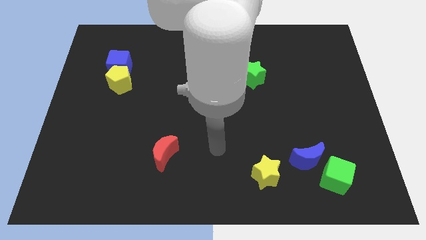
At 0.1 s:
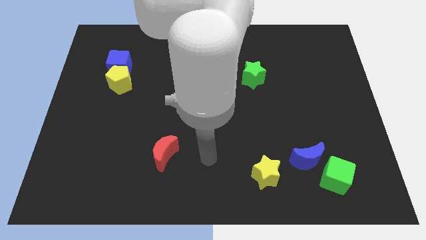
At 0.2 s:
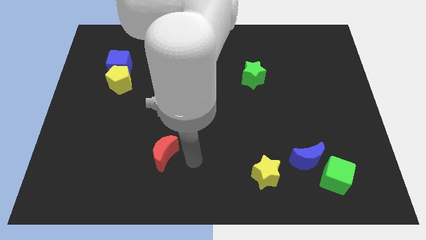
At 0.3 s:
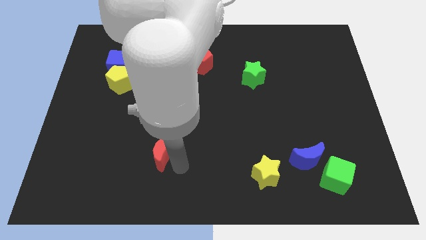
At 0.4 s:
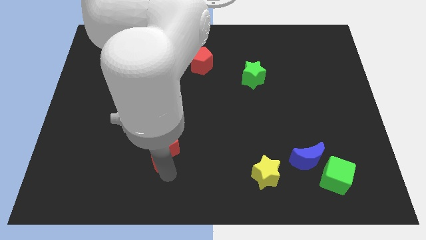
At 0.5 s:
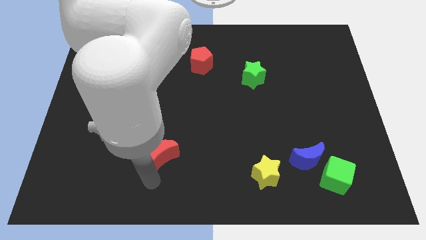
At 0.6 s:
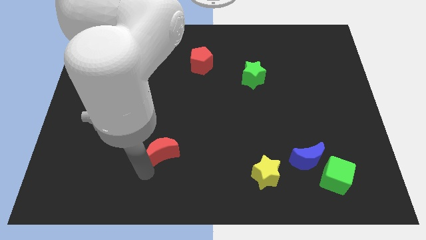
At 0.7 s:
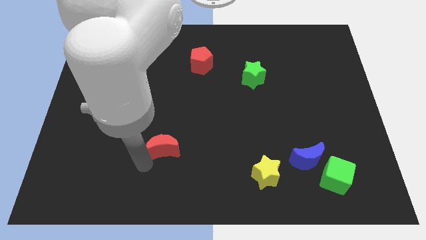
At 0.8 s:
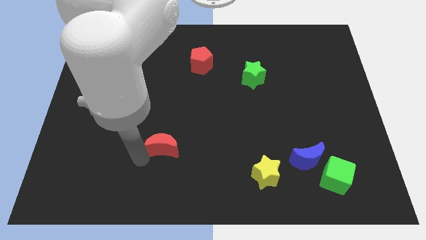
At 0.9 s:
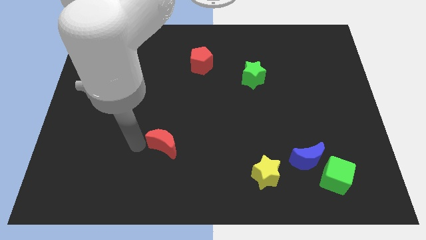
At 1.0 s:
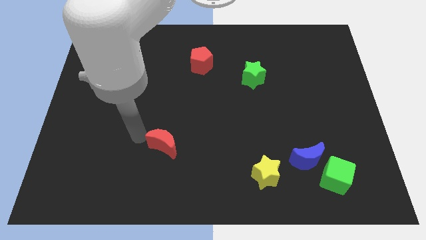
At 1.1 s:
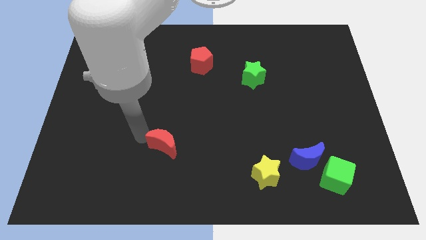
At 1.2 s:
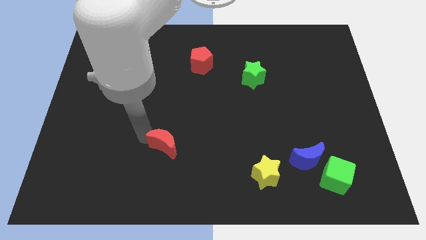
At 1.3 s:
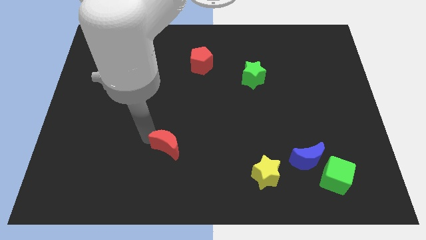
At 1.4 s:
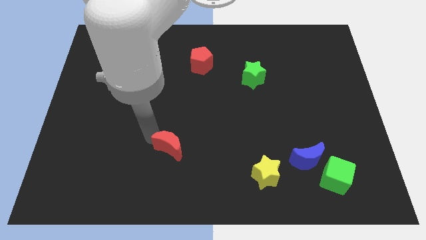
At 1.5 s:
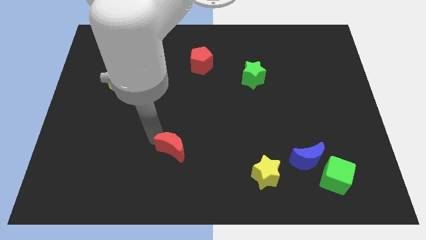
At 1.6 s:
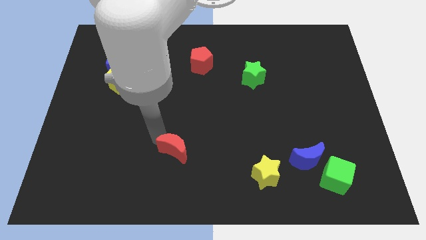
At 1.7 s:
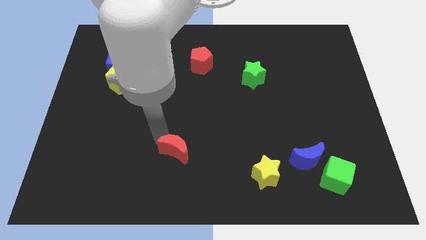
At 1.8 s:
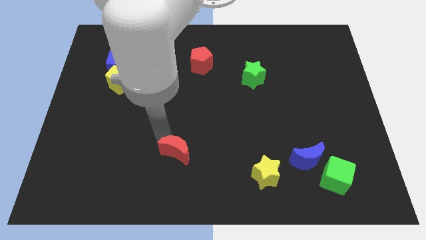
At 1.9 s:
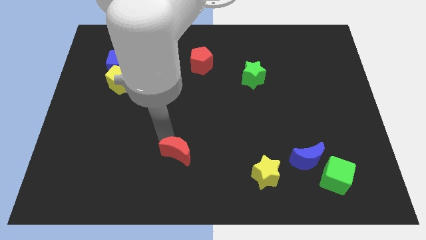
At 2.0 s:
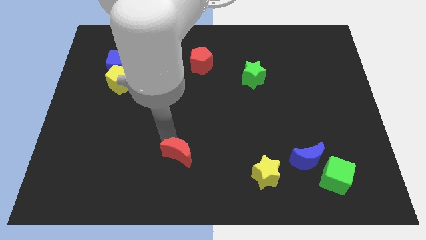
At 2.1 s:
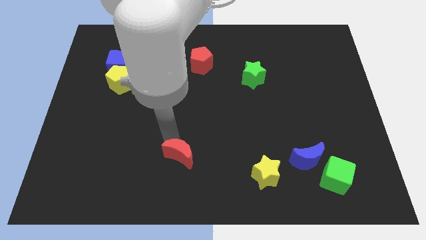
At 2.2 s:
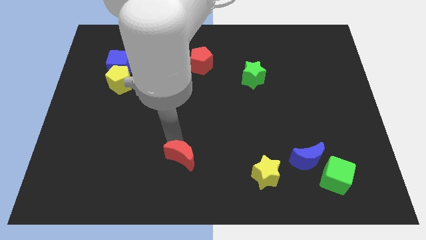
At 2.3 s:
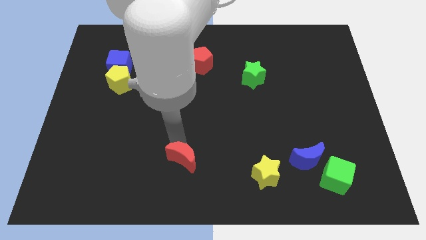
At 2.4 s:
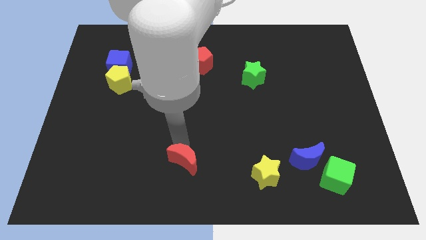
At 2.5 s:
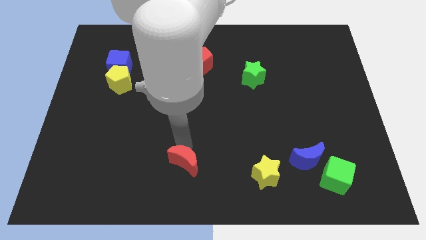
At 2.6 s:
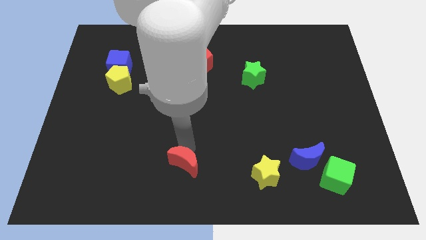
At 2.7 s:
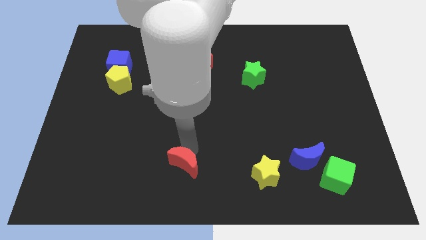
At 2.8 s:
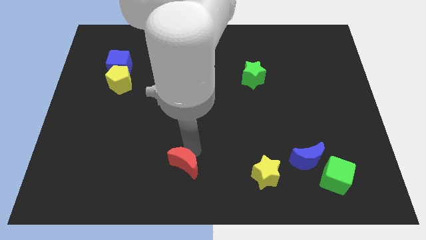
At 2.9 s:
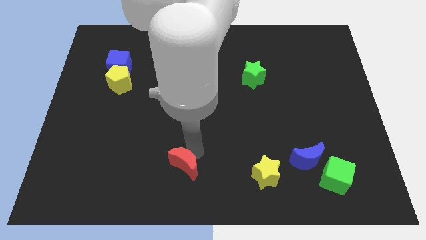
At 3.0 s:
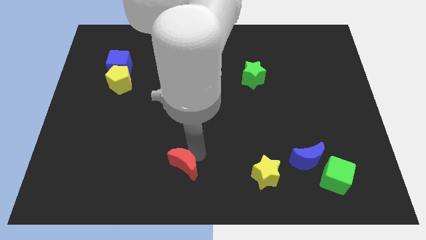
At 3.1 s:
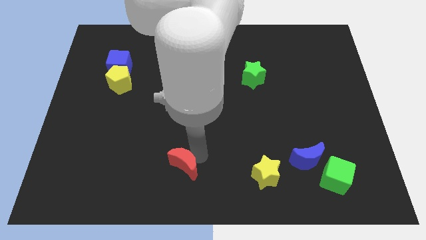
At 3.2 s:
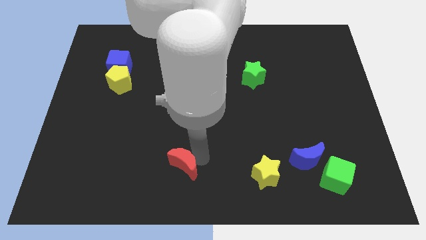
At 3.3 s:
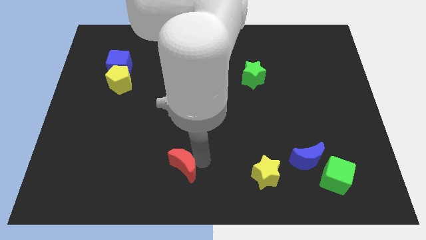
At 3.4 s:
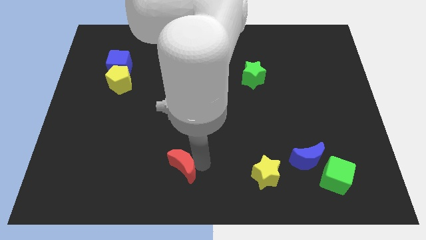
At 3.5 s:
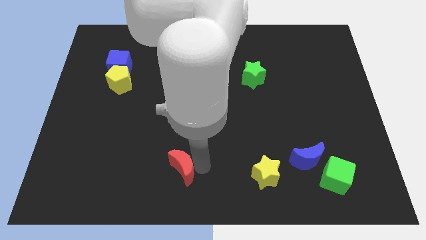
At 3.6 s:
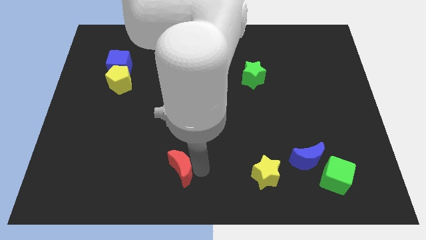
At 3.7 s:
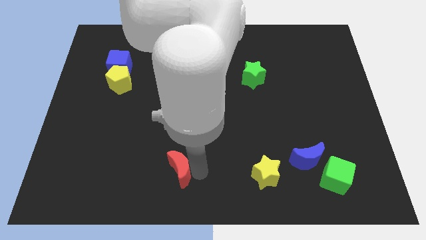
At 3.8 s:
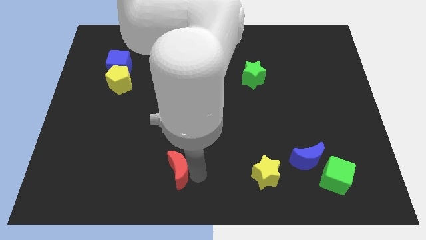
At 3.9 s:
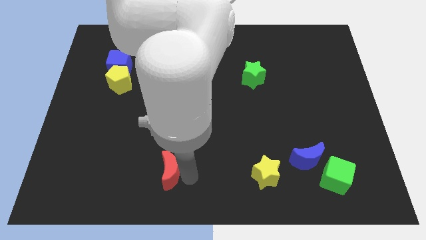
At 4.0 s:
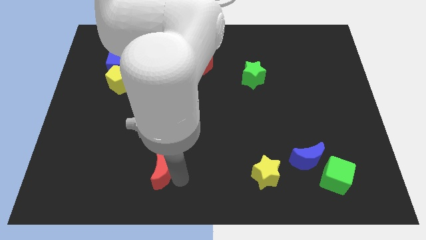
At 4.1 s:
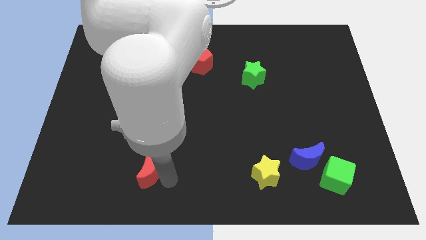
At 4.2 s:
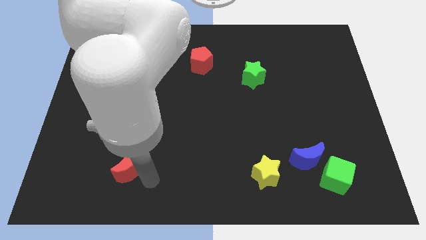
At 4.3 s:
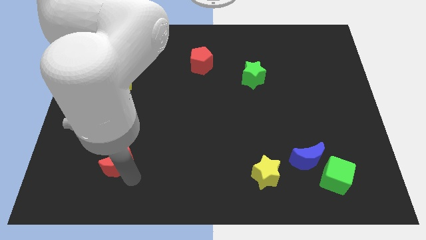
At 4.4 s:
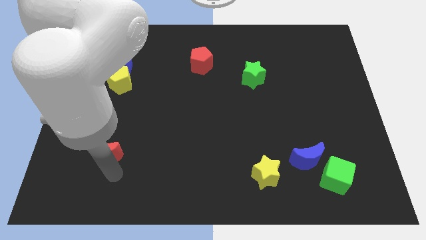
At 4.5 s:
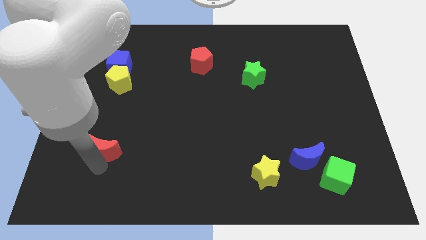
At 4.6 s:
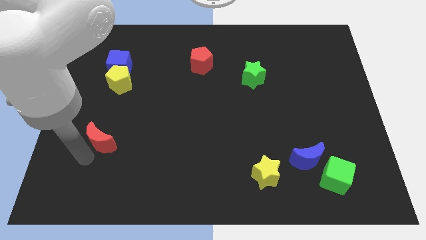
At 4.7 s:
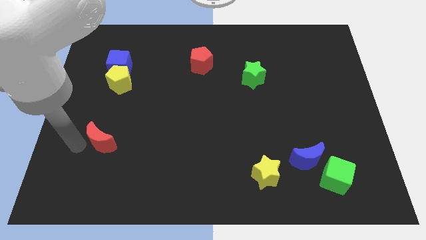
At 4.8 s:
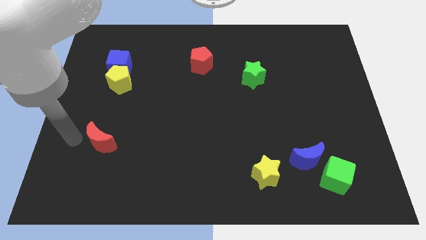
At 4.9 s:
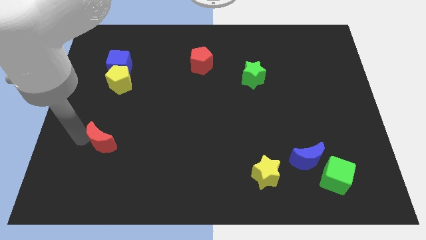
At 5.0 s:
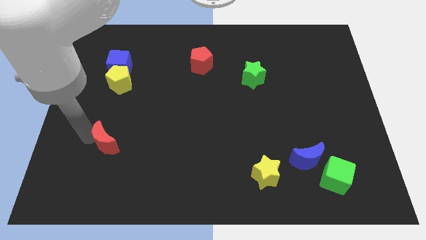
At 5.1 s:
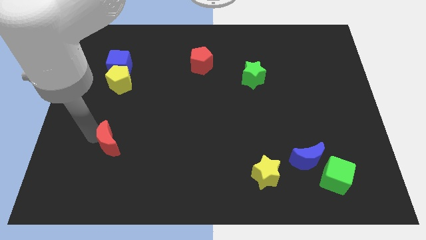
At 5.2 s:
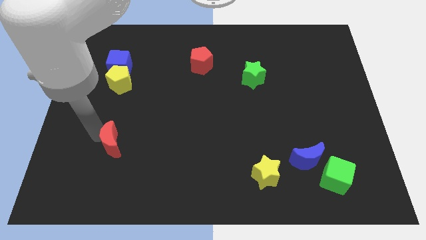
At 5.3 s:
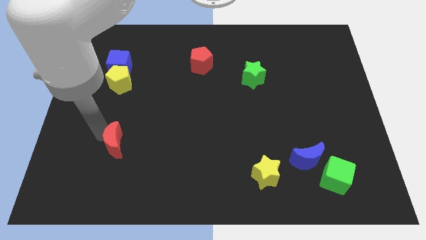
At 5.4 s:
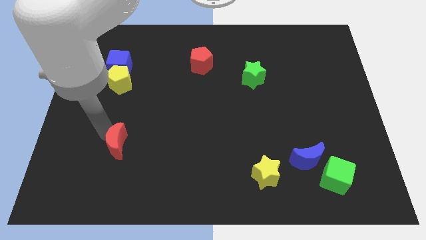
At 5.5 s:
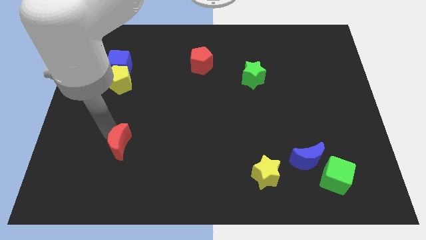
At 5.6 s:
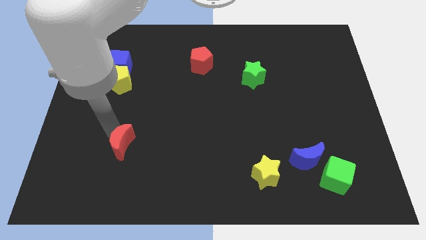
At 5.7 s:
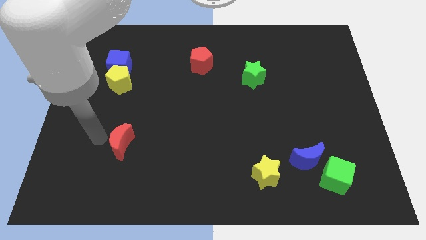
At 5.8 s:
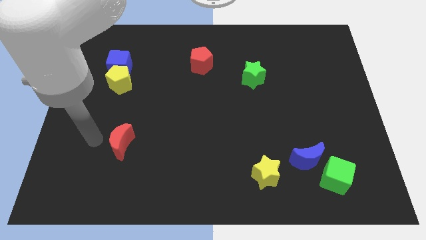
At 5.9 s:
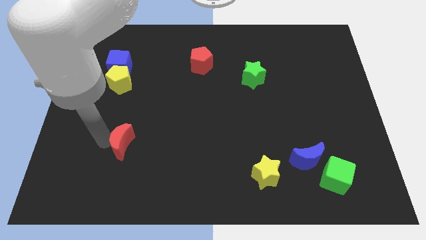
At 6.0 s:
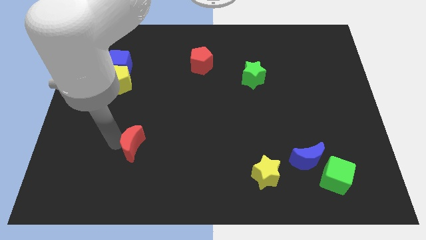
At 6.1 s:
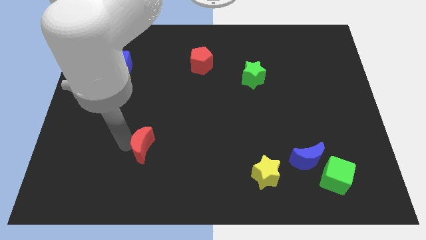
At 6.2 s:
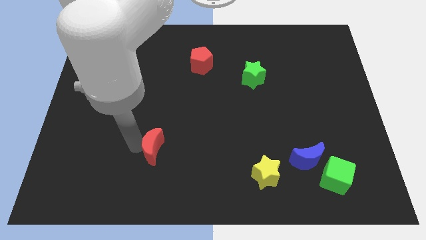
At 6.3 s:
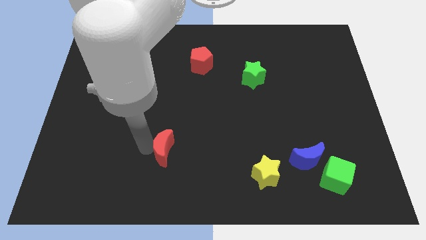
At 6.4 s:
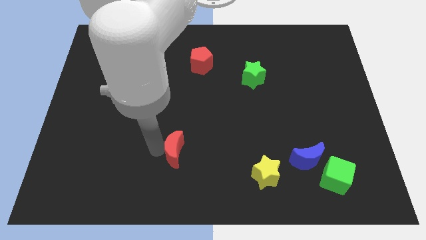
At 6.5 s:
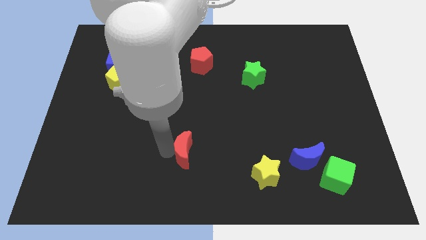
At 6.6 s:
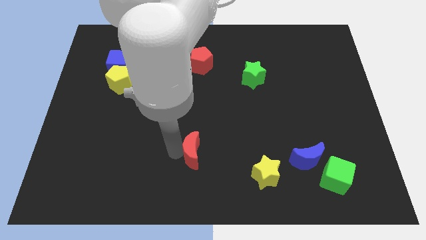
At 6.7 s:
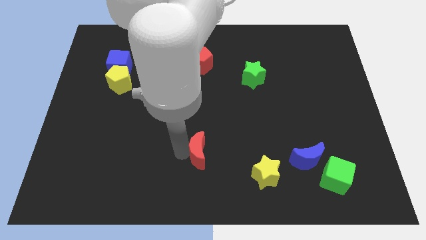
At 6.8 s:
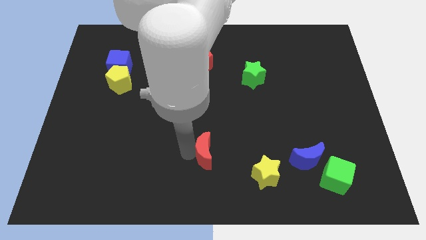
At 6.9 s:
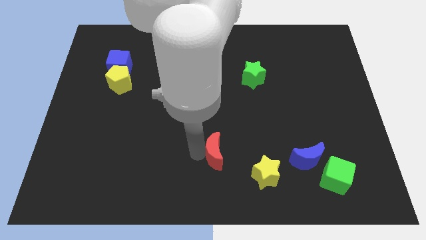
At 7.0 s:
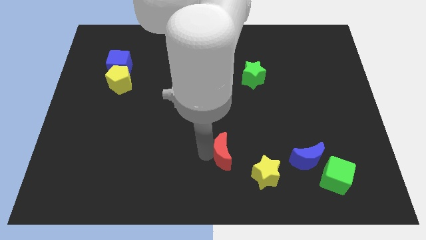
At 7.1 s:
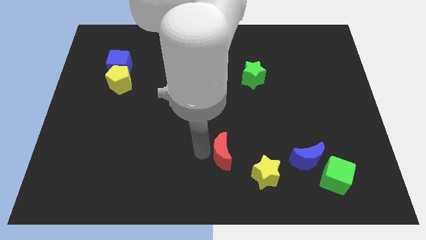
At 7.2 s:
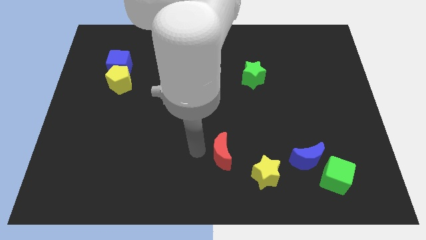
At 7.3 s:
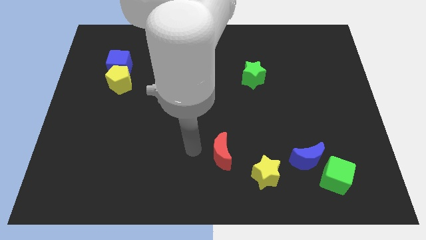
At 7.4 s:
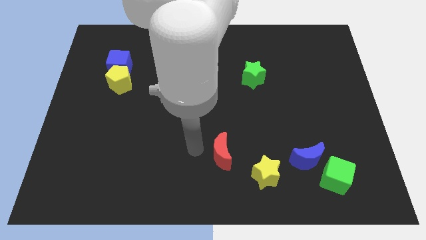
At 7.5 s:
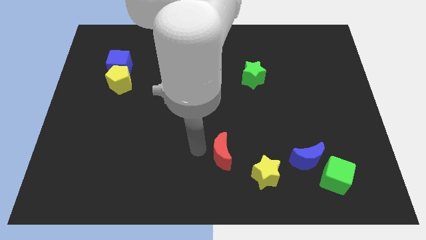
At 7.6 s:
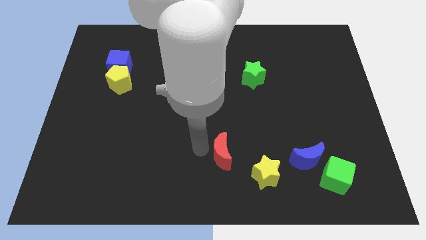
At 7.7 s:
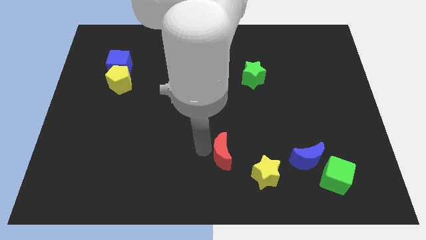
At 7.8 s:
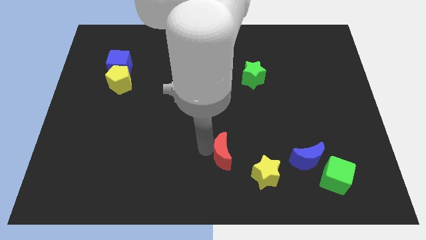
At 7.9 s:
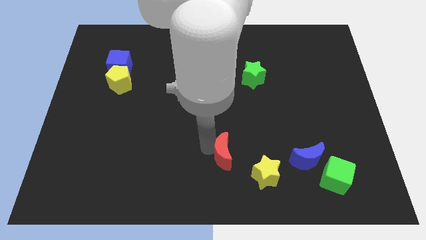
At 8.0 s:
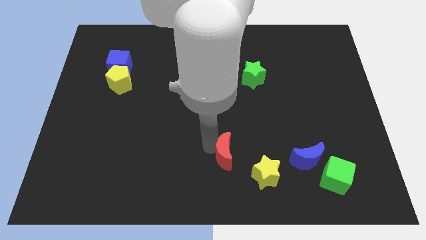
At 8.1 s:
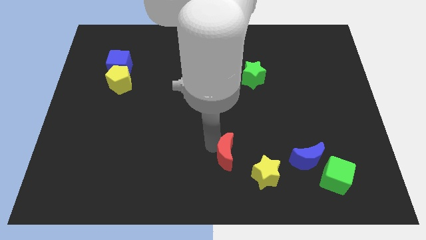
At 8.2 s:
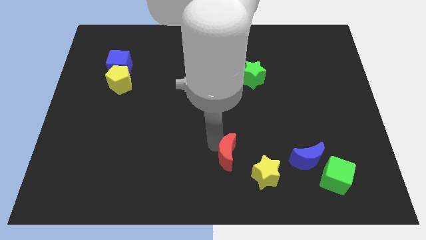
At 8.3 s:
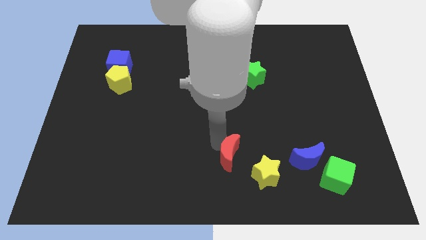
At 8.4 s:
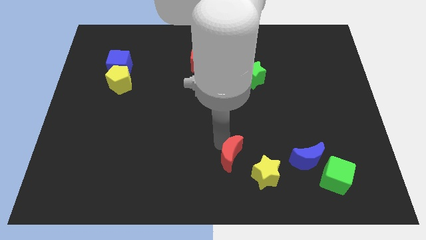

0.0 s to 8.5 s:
put the red moon just left of the blue moon
